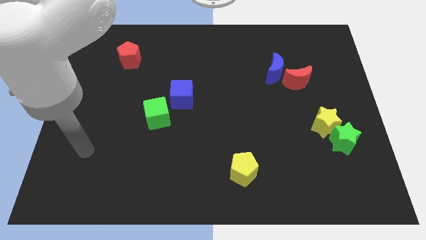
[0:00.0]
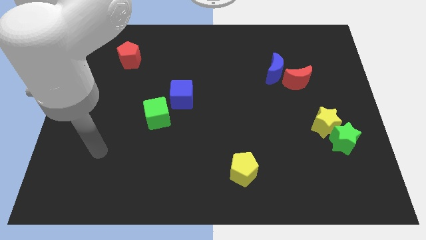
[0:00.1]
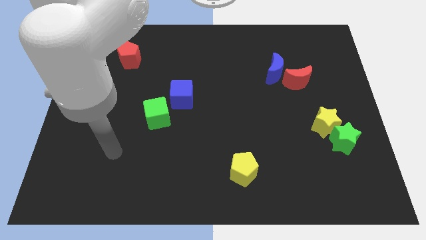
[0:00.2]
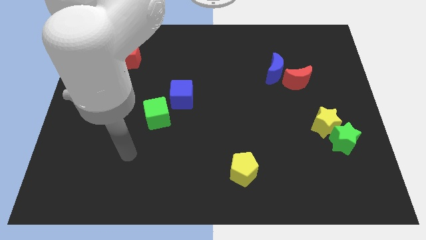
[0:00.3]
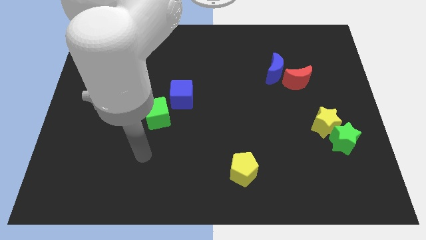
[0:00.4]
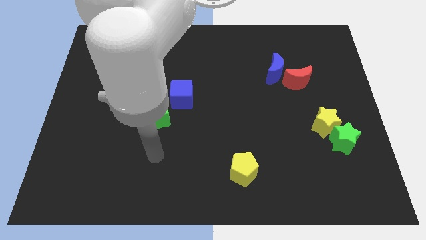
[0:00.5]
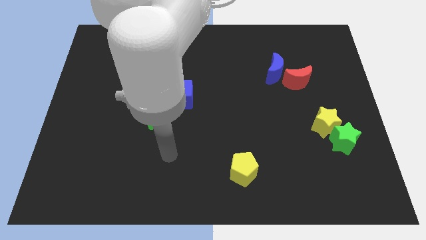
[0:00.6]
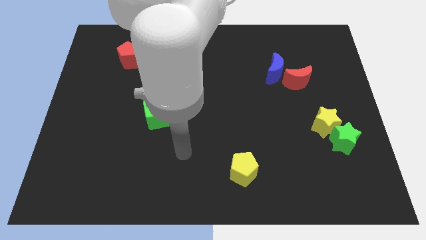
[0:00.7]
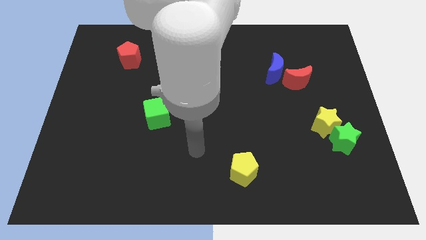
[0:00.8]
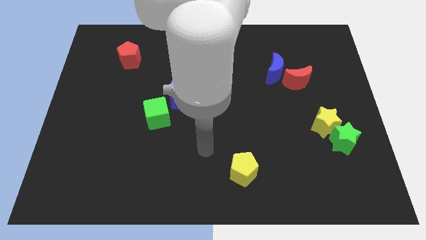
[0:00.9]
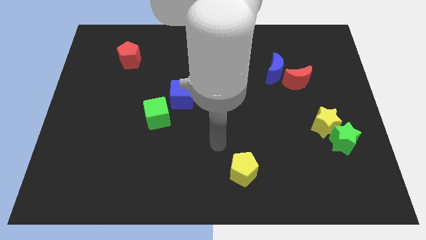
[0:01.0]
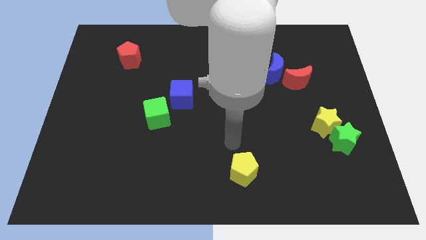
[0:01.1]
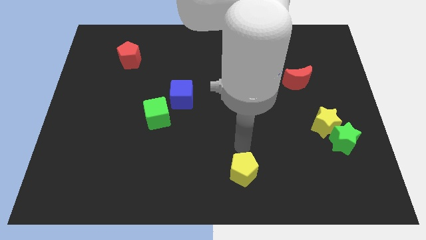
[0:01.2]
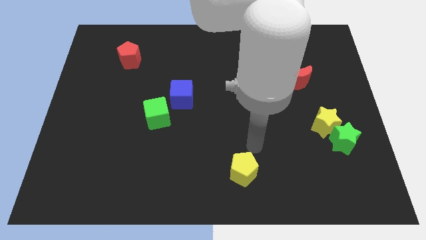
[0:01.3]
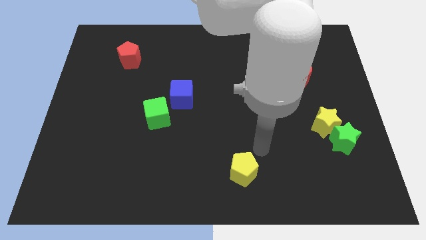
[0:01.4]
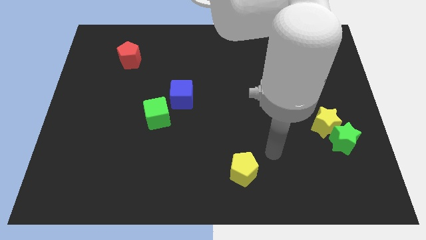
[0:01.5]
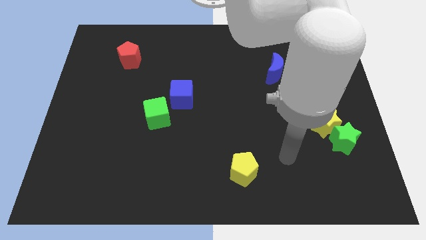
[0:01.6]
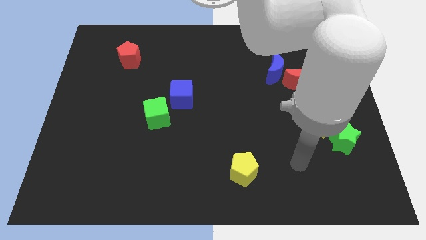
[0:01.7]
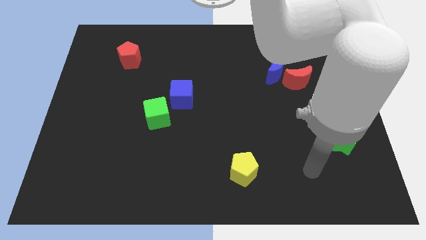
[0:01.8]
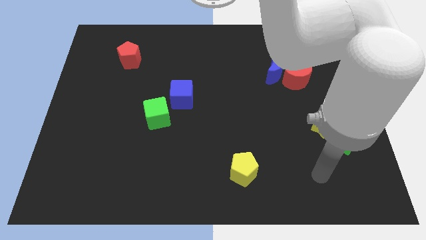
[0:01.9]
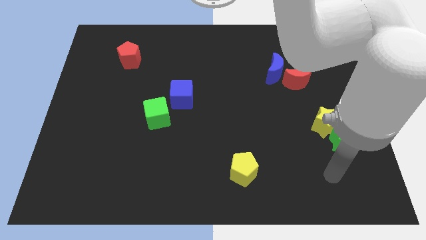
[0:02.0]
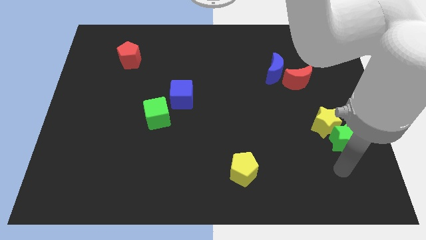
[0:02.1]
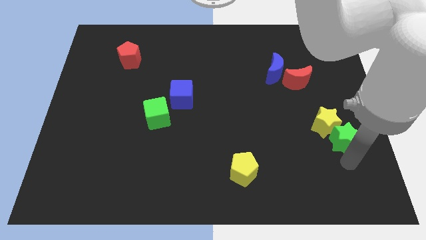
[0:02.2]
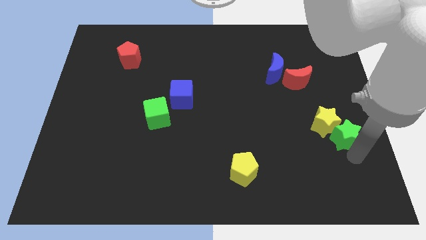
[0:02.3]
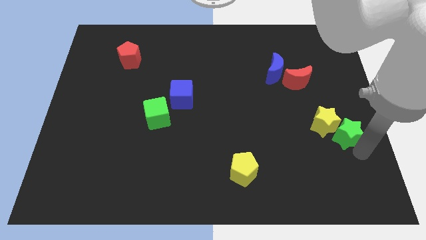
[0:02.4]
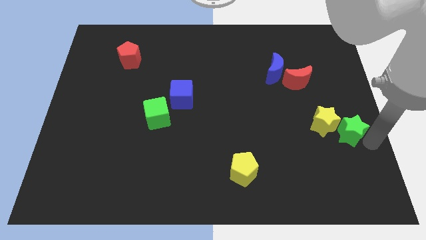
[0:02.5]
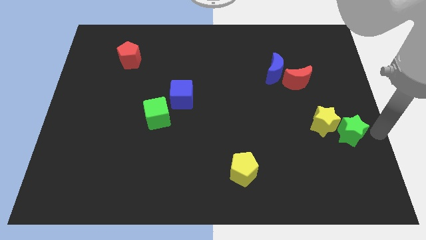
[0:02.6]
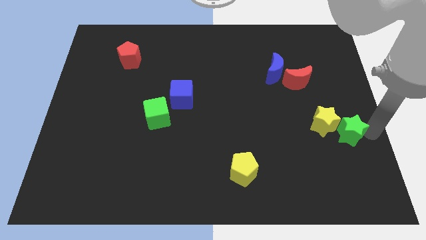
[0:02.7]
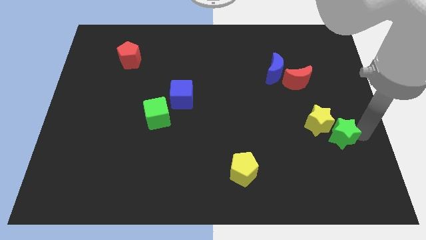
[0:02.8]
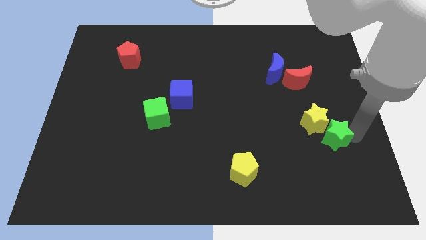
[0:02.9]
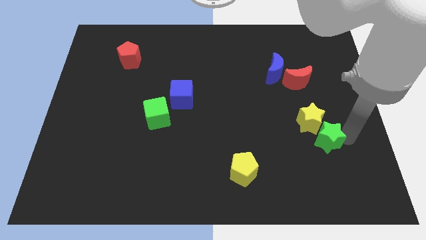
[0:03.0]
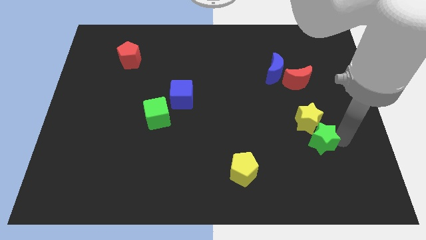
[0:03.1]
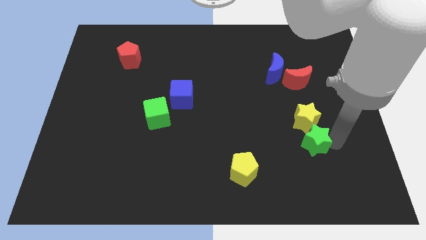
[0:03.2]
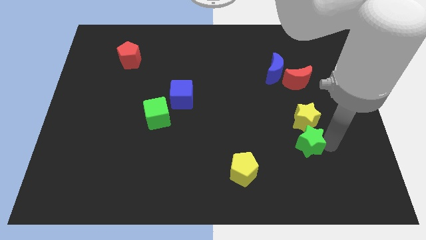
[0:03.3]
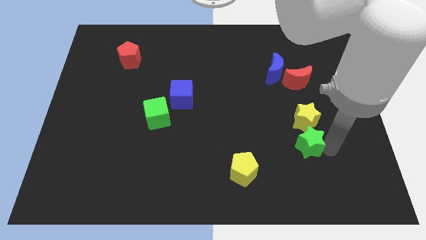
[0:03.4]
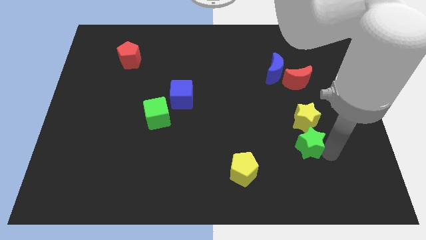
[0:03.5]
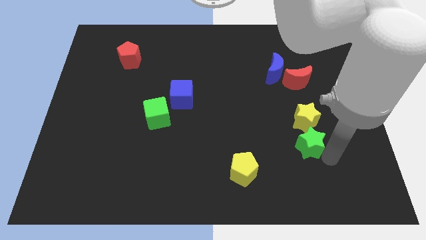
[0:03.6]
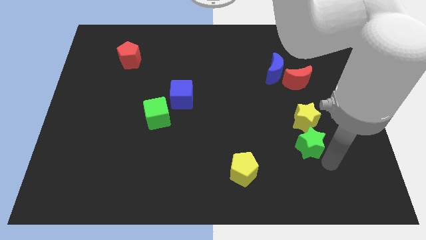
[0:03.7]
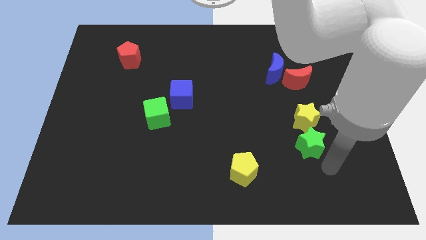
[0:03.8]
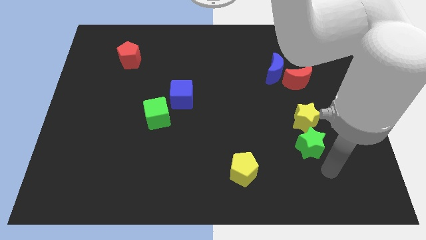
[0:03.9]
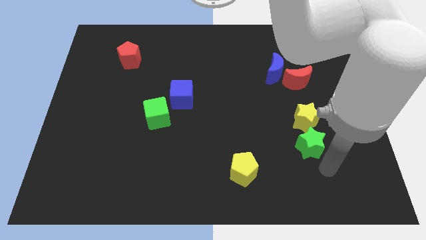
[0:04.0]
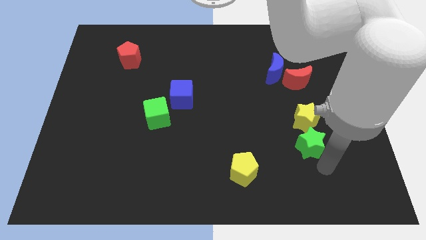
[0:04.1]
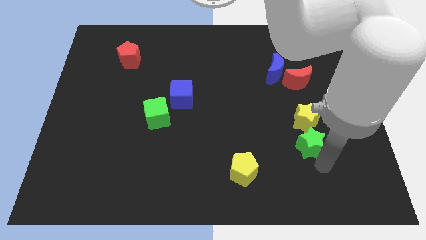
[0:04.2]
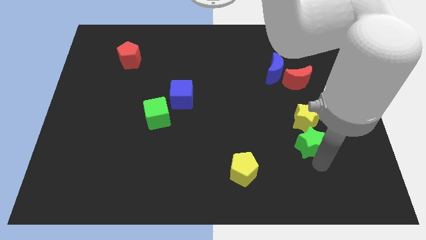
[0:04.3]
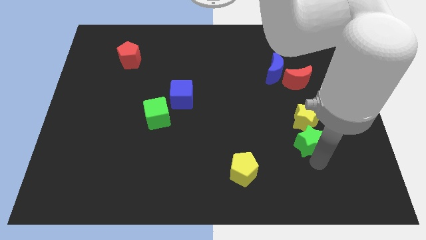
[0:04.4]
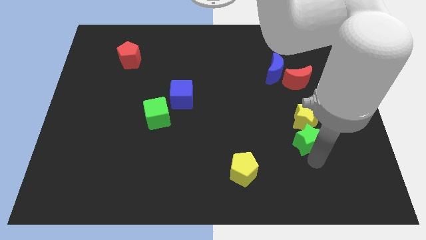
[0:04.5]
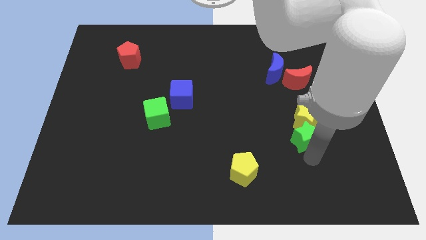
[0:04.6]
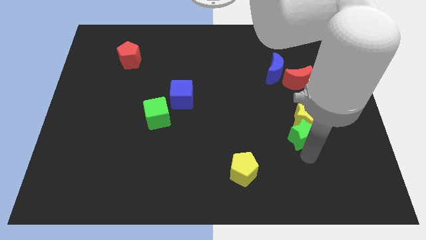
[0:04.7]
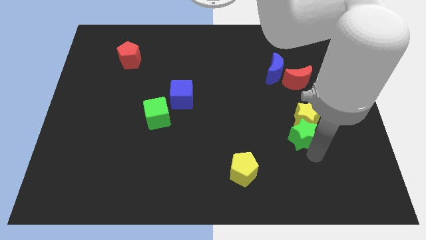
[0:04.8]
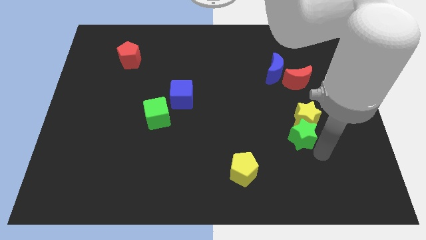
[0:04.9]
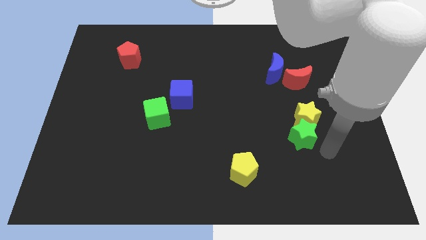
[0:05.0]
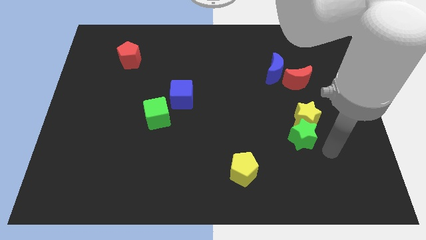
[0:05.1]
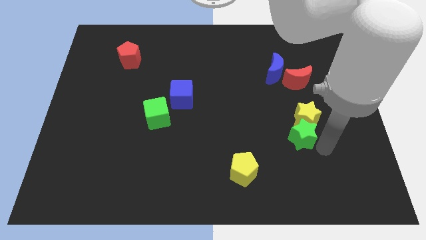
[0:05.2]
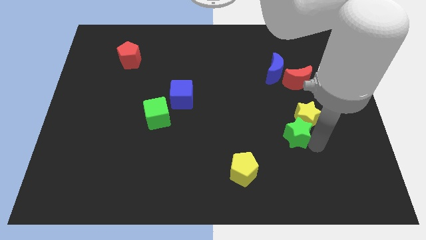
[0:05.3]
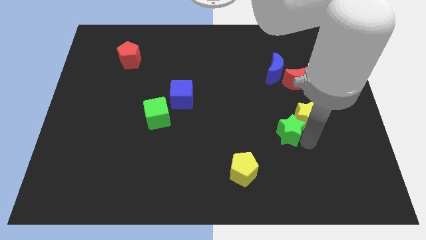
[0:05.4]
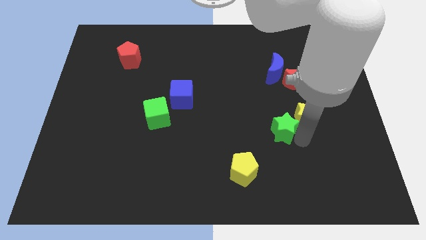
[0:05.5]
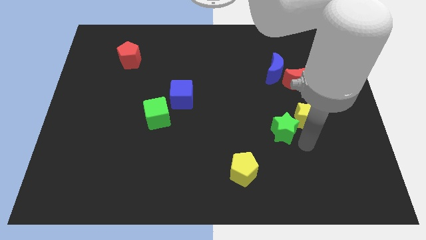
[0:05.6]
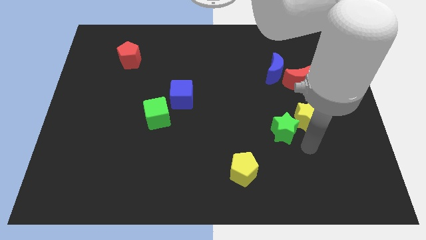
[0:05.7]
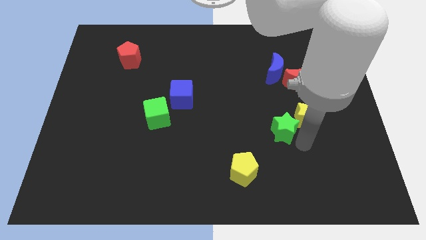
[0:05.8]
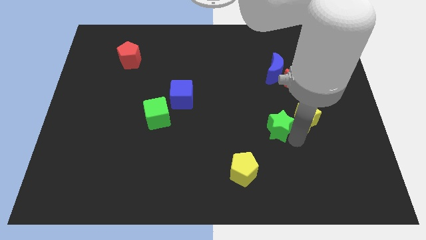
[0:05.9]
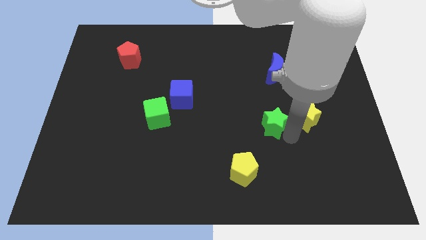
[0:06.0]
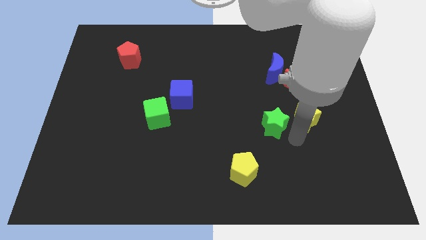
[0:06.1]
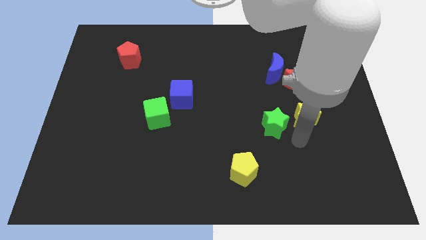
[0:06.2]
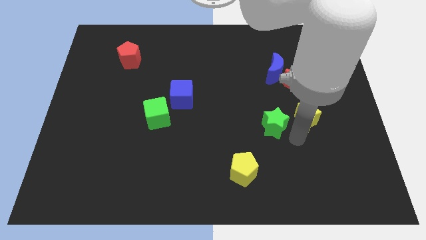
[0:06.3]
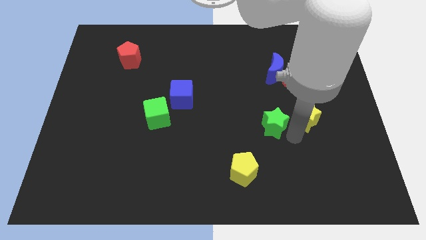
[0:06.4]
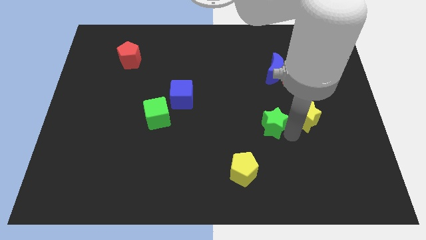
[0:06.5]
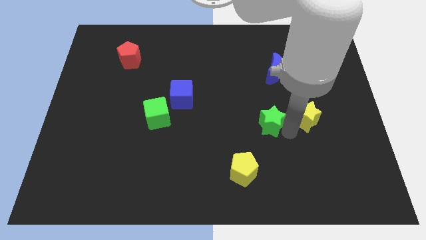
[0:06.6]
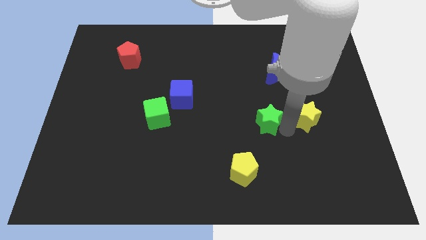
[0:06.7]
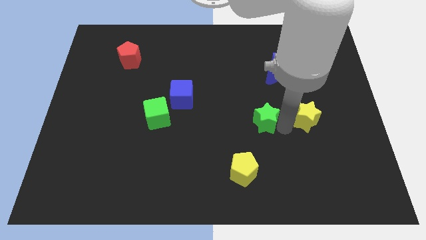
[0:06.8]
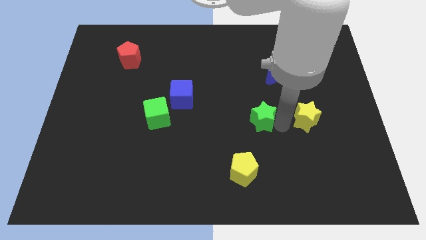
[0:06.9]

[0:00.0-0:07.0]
move the green star to the middle
